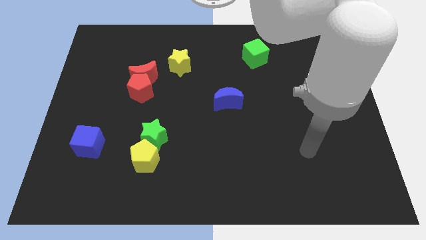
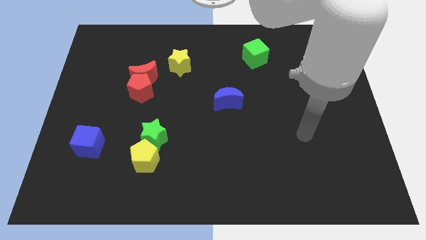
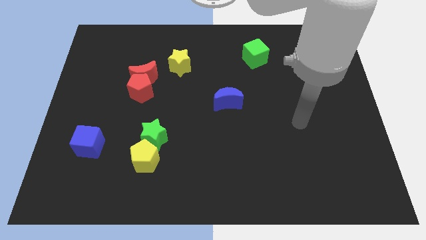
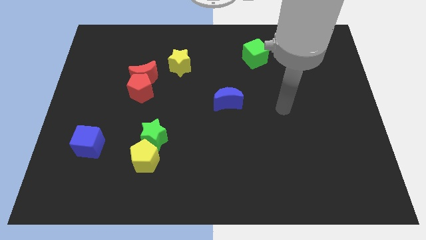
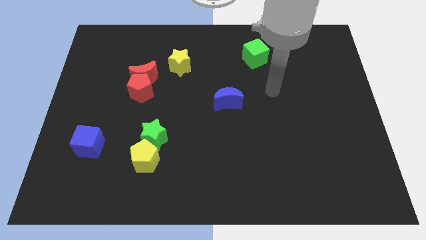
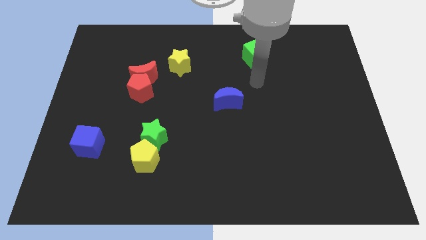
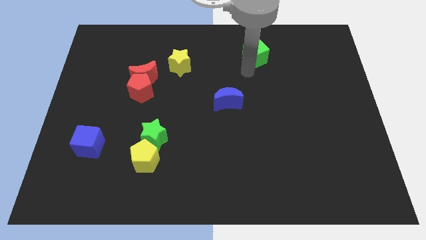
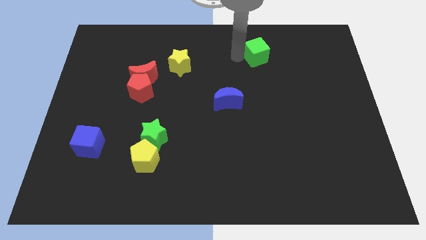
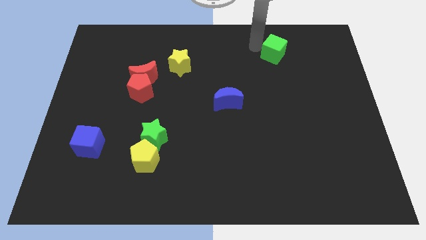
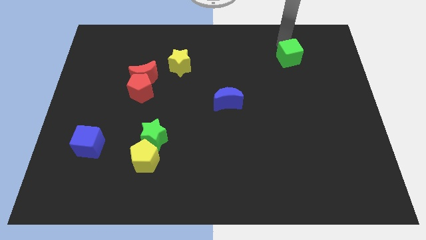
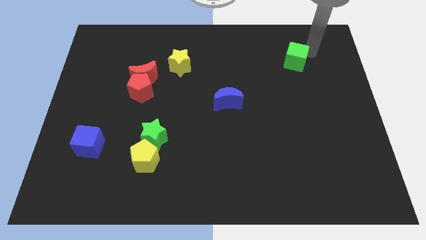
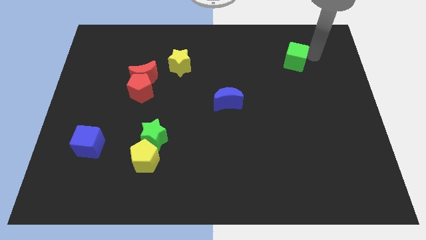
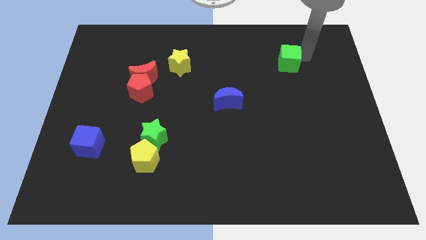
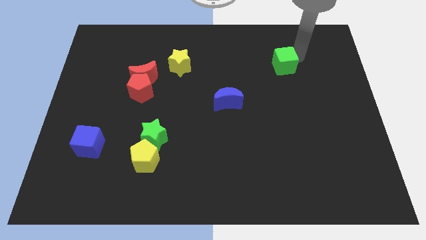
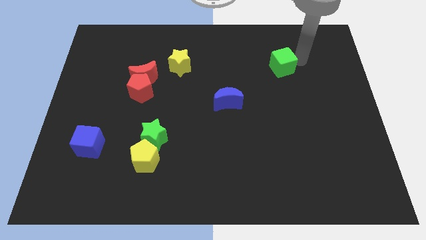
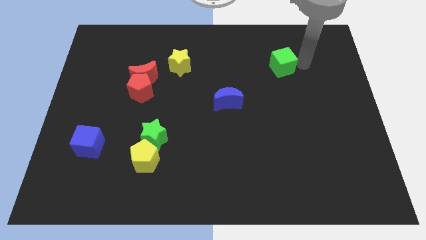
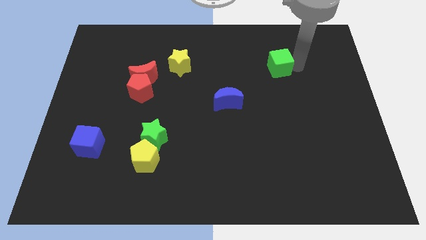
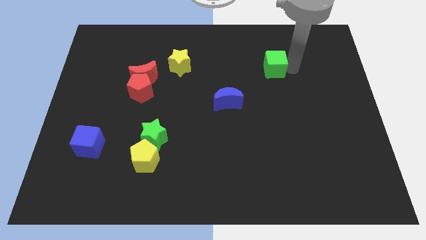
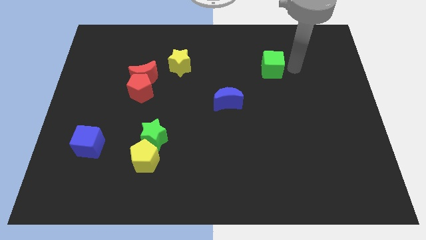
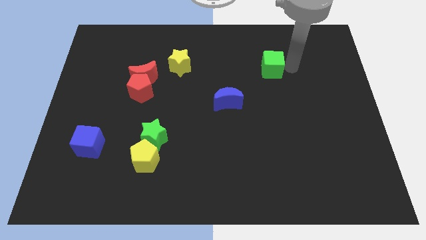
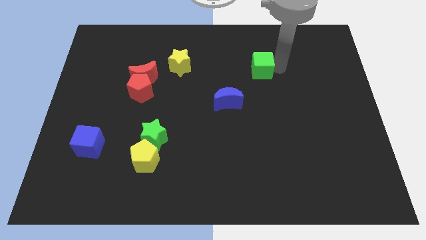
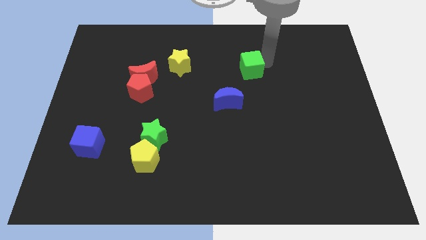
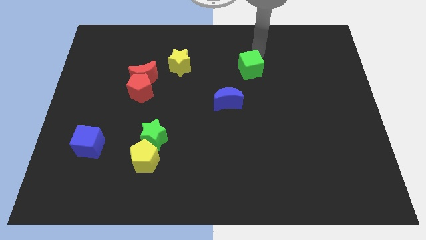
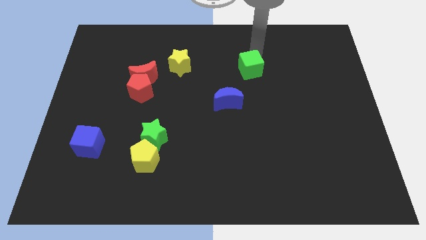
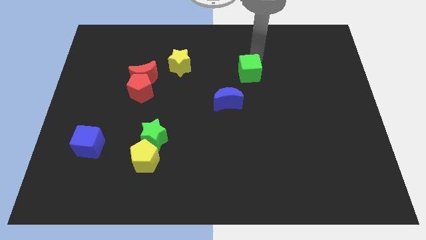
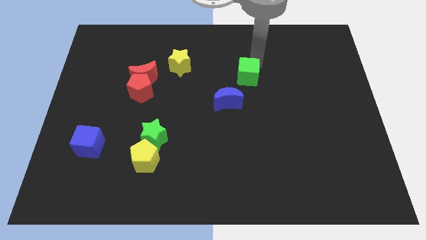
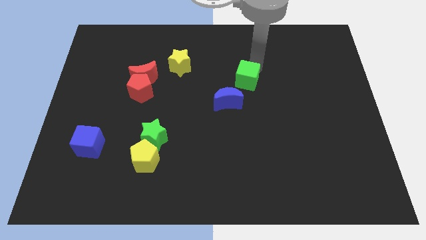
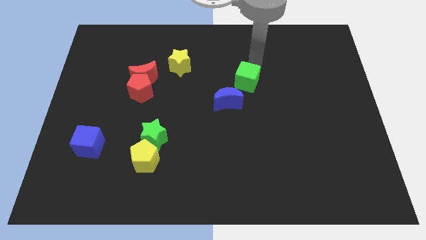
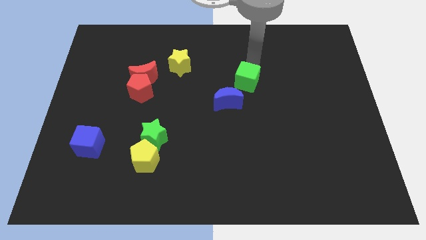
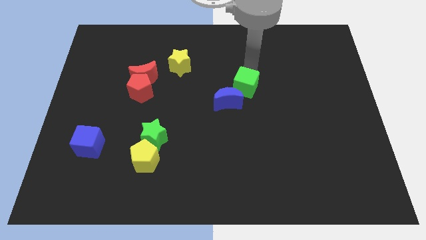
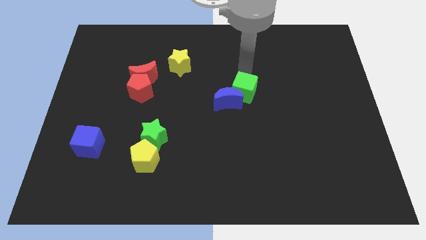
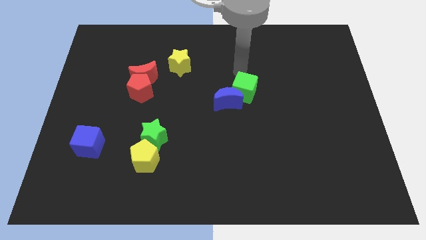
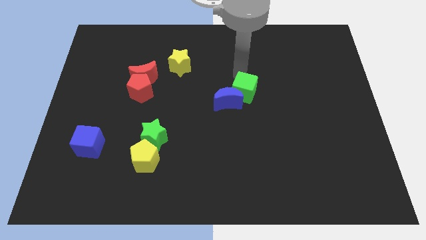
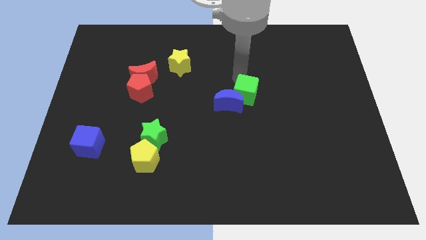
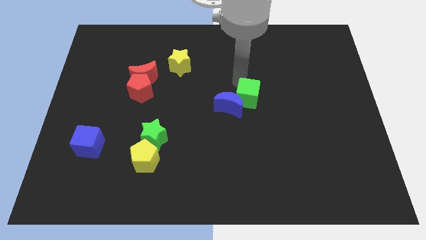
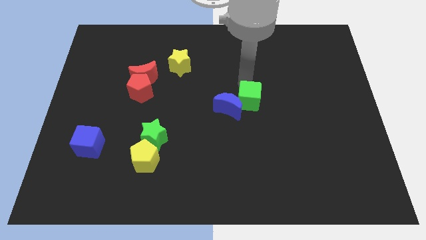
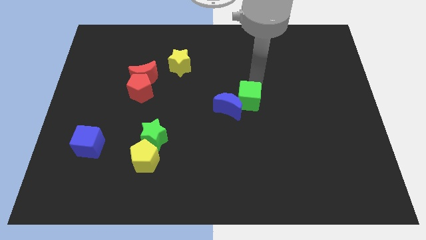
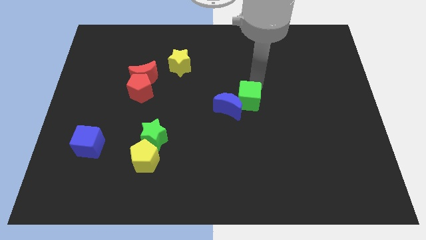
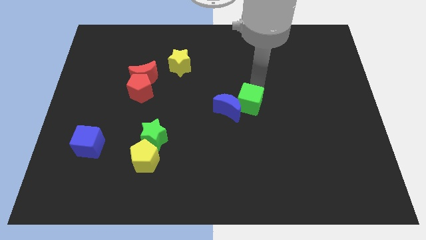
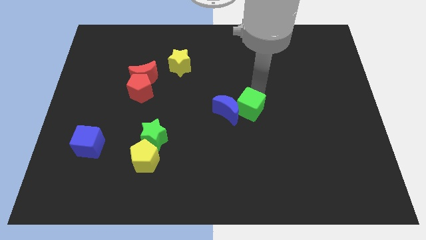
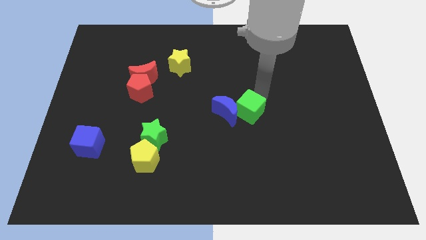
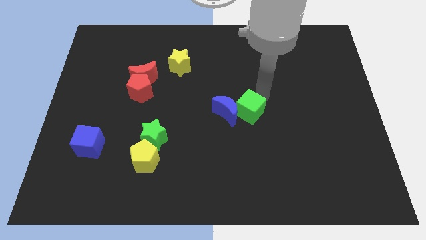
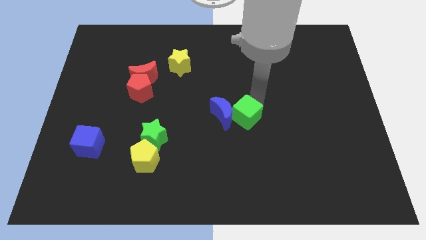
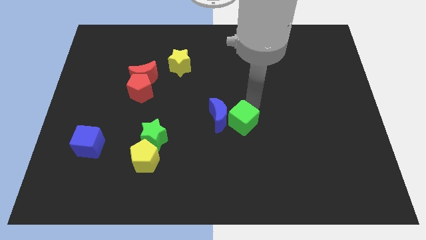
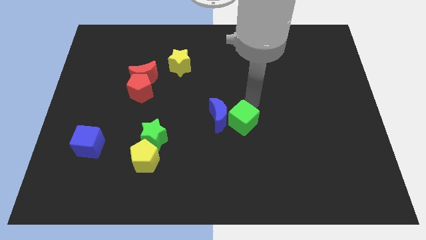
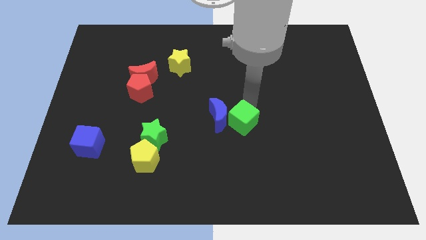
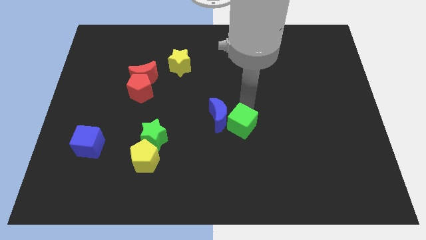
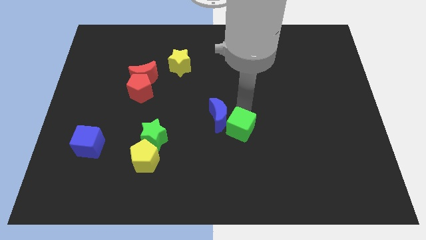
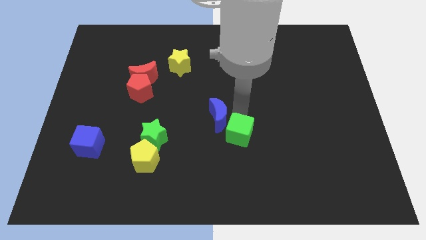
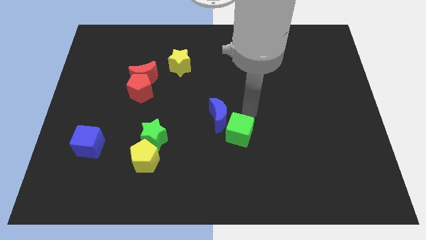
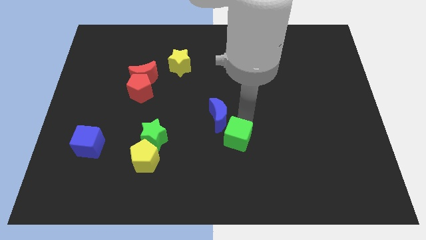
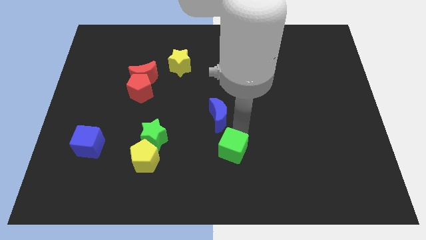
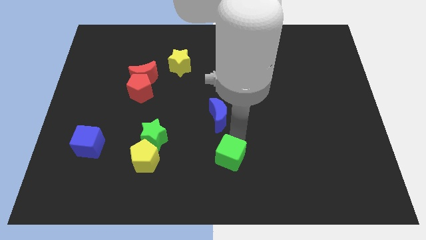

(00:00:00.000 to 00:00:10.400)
push the green cube to the bottom side

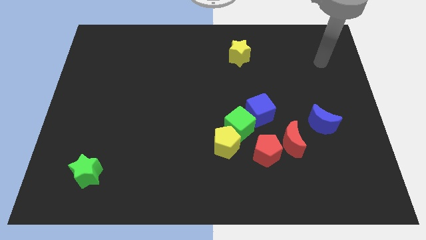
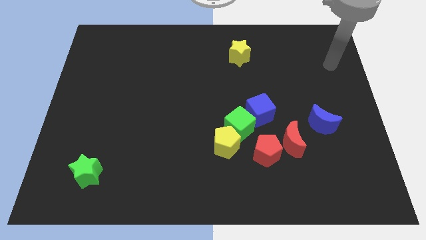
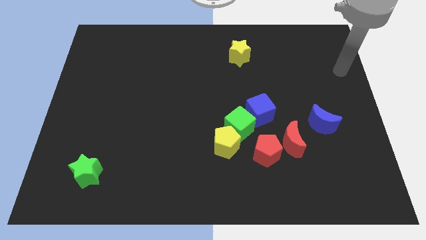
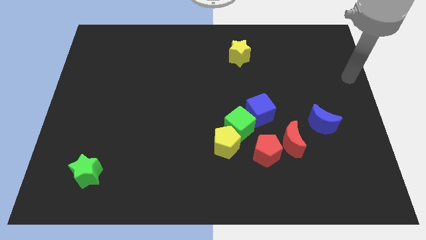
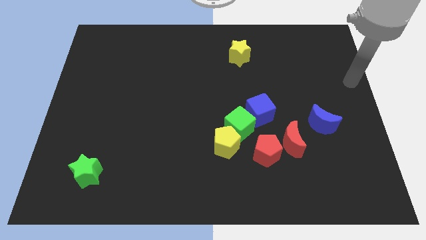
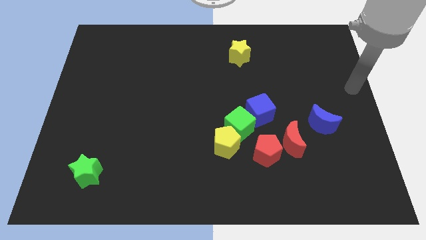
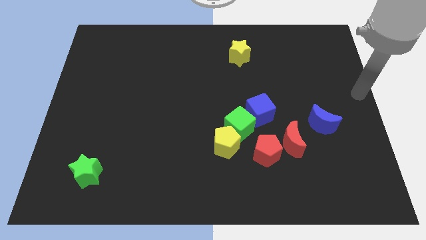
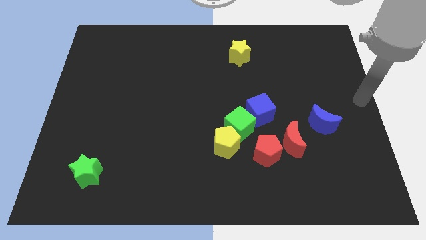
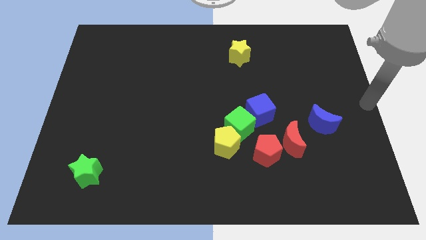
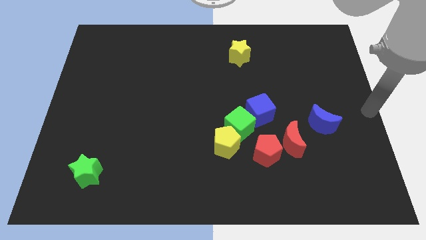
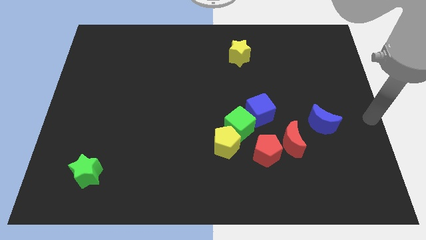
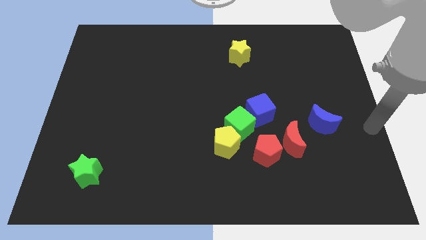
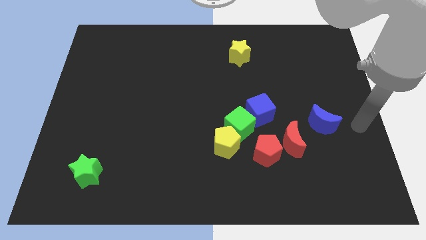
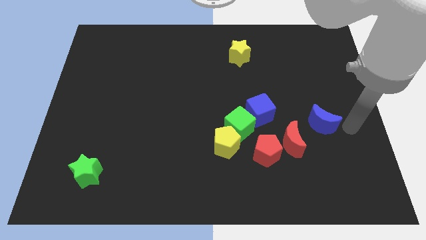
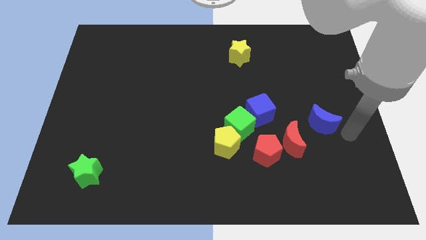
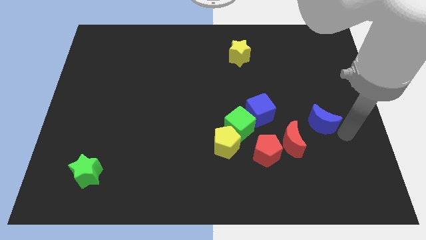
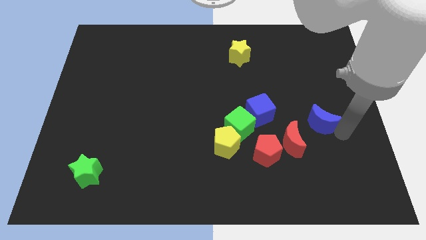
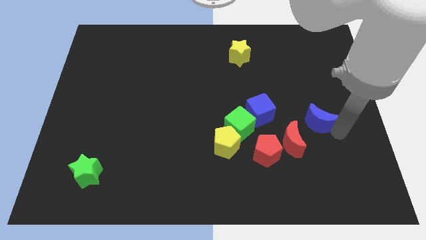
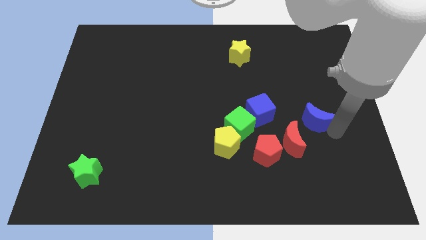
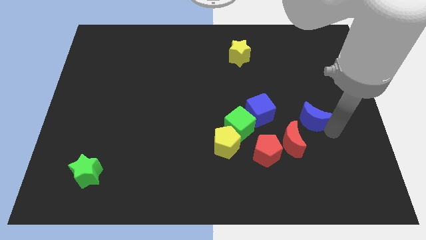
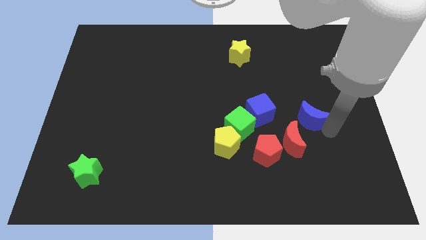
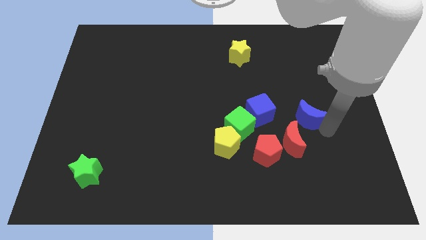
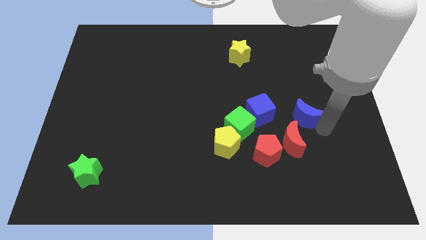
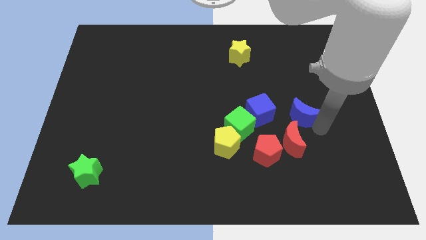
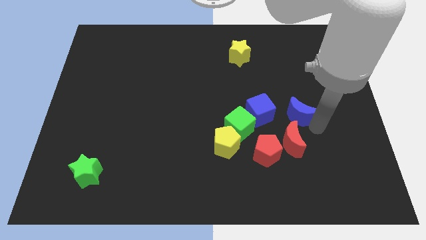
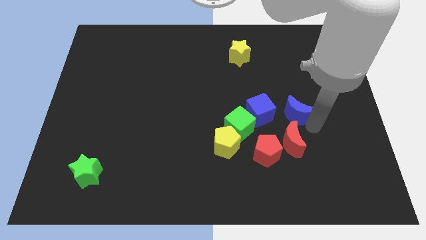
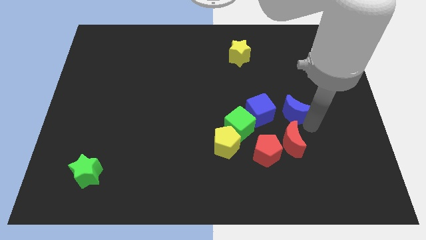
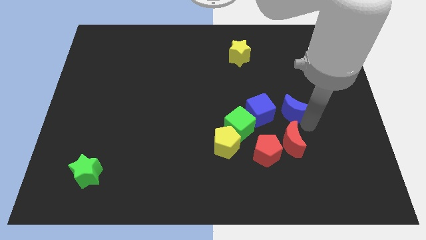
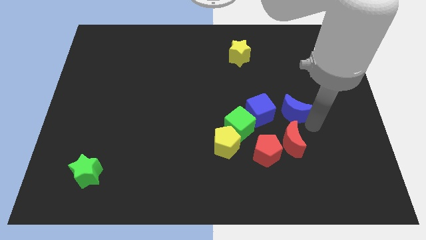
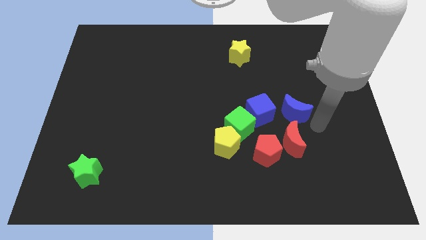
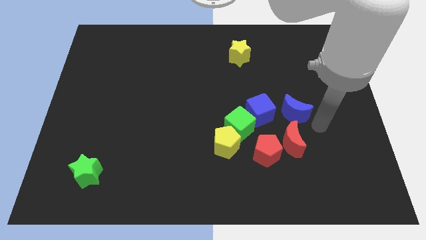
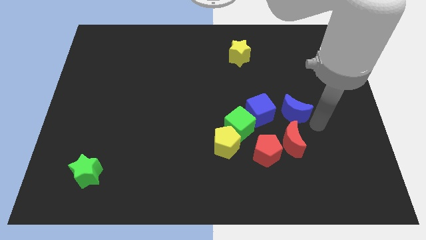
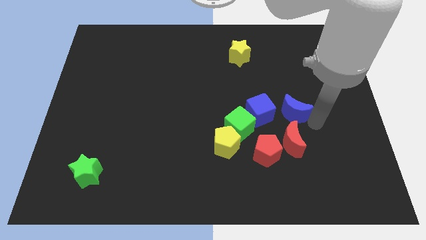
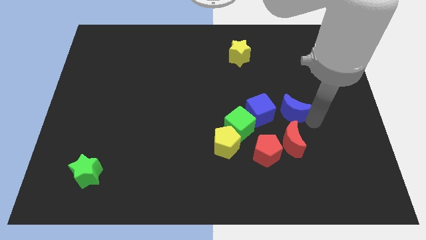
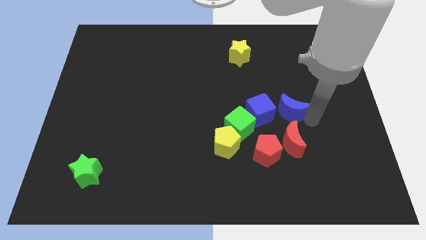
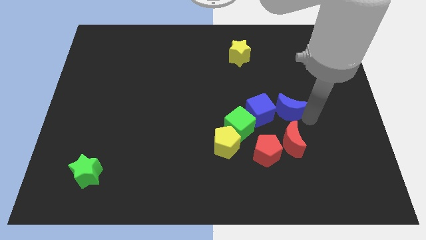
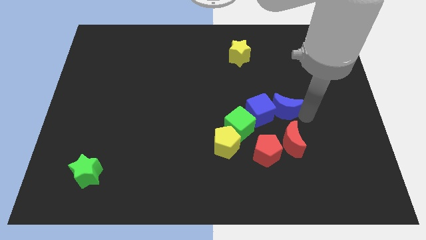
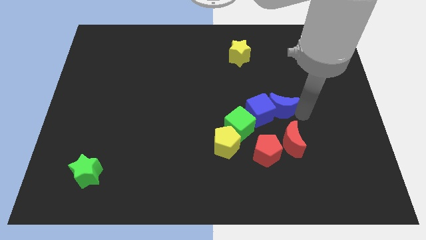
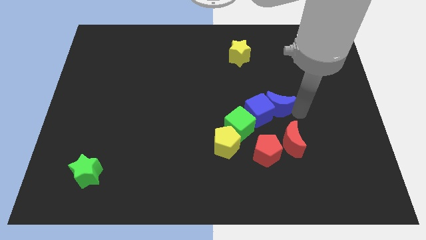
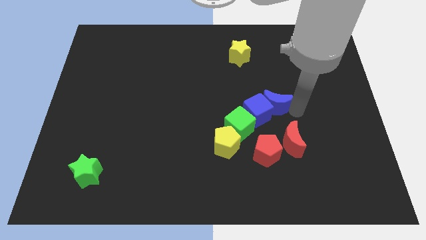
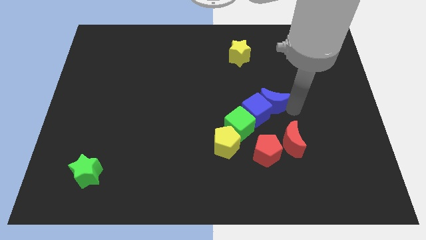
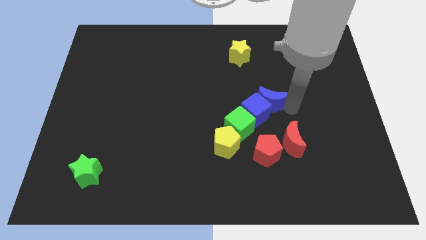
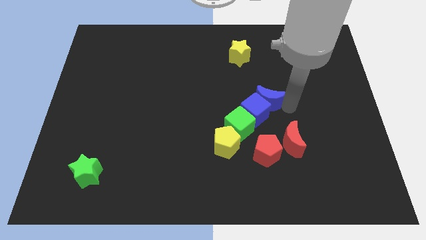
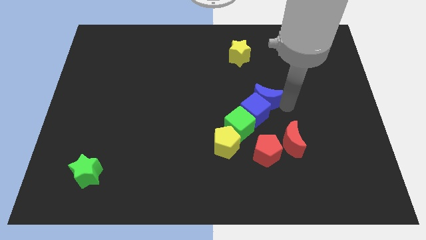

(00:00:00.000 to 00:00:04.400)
push the blue moon to the center of the board
